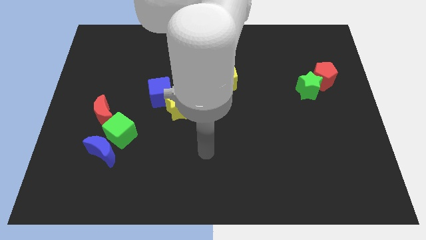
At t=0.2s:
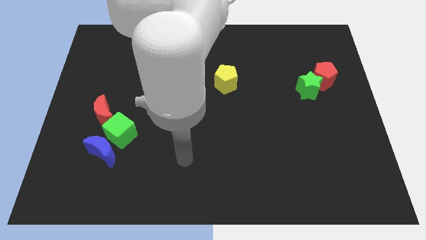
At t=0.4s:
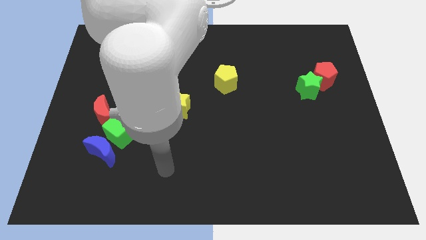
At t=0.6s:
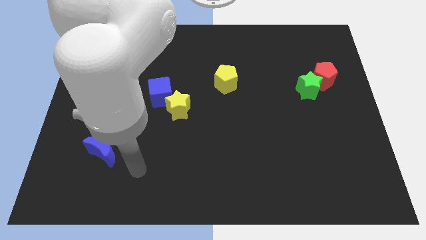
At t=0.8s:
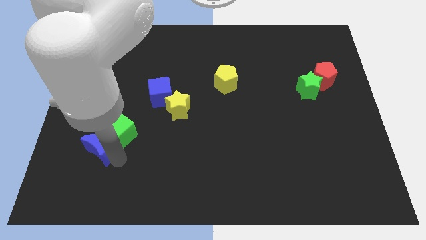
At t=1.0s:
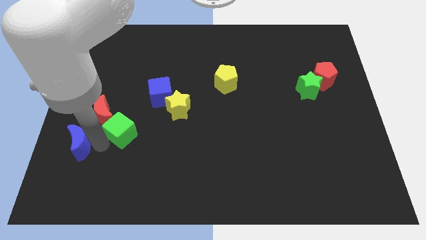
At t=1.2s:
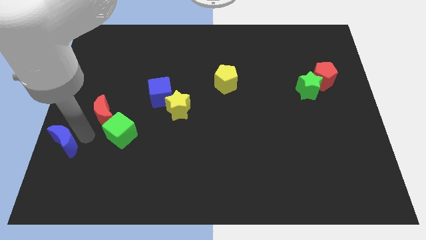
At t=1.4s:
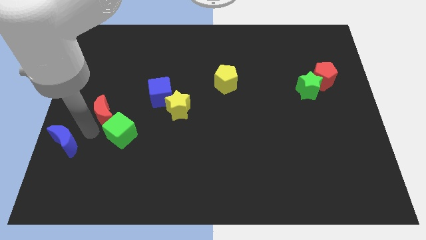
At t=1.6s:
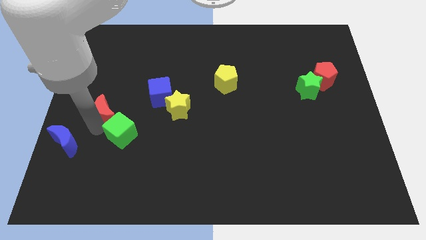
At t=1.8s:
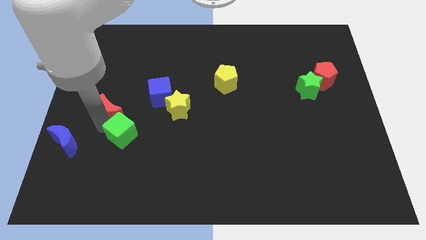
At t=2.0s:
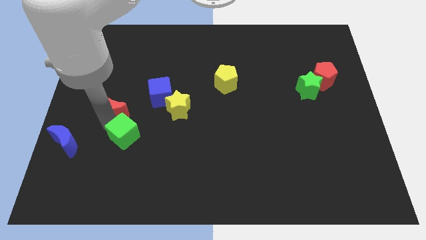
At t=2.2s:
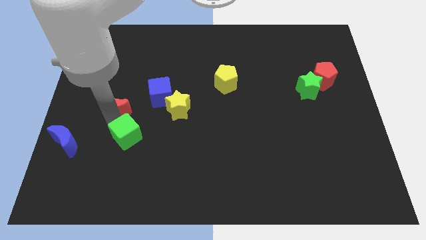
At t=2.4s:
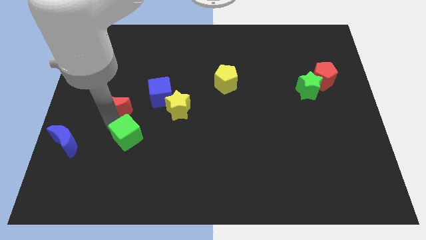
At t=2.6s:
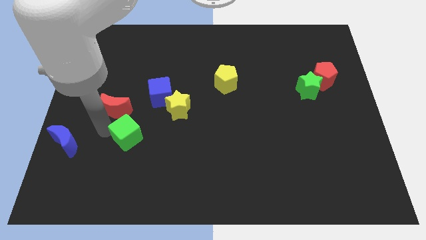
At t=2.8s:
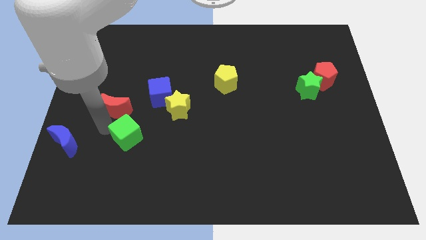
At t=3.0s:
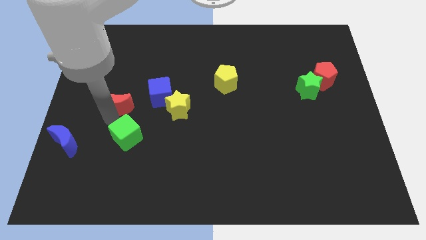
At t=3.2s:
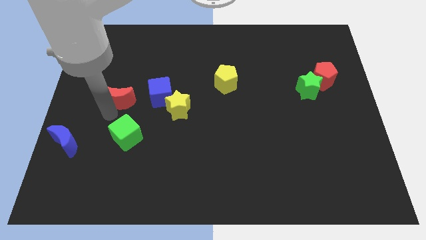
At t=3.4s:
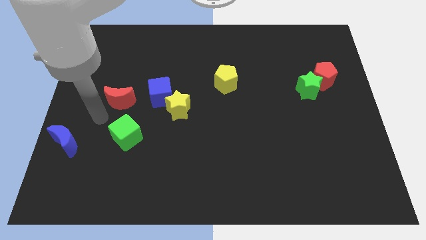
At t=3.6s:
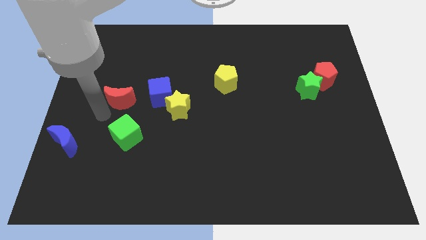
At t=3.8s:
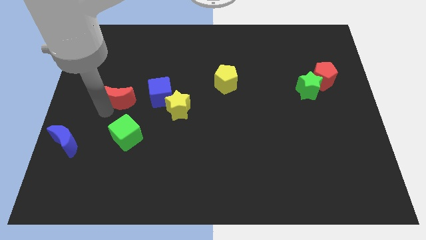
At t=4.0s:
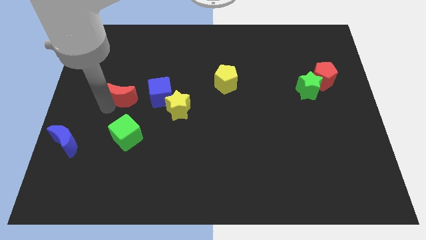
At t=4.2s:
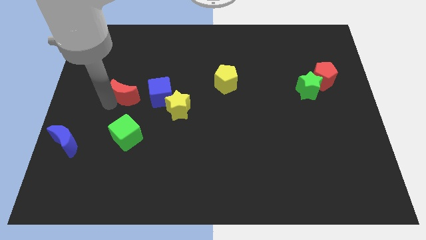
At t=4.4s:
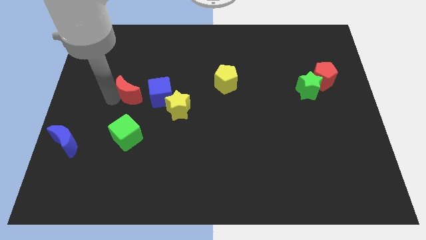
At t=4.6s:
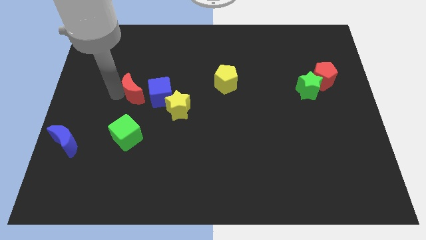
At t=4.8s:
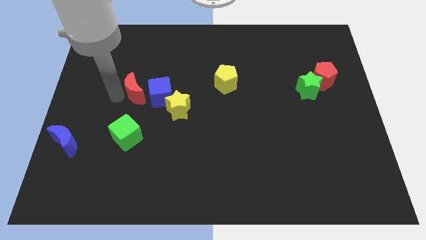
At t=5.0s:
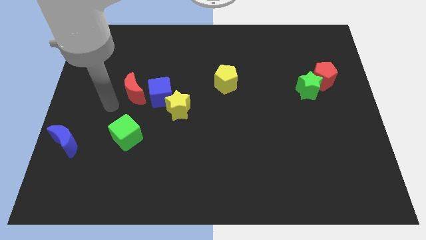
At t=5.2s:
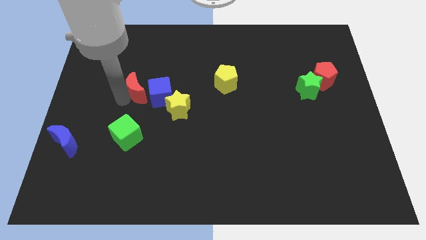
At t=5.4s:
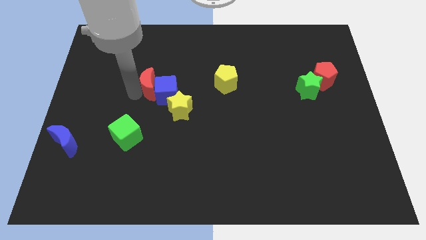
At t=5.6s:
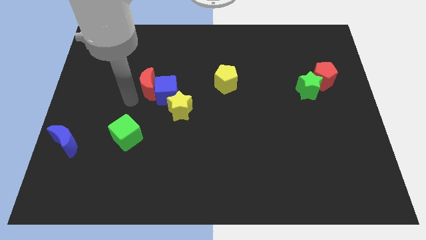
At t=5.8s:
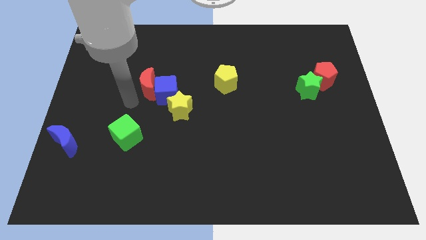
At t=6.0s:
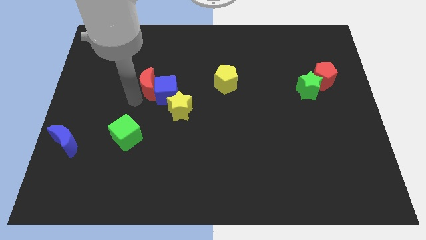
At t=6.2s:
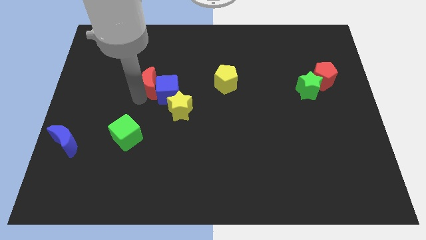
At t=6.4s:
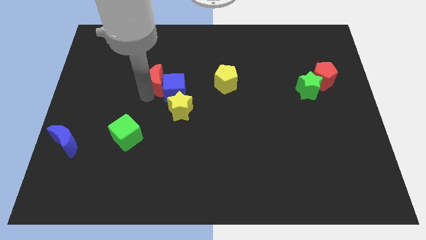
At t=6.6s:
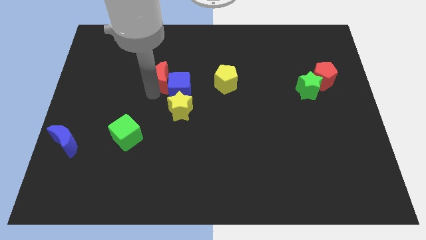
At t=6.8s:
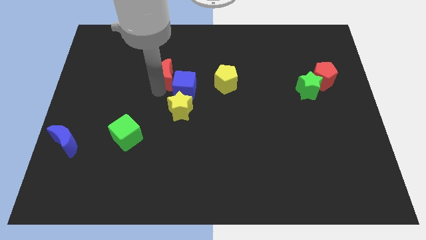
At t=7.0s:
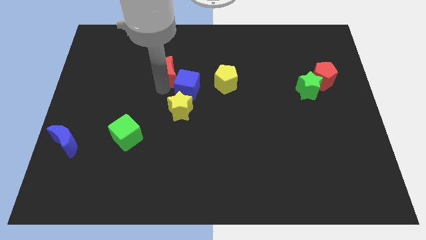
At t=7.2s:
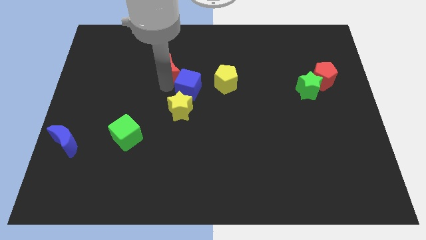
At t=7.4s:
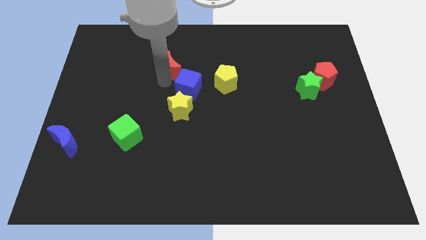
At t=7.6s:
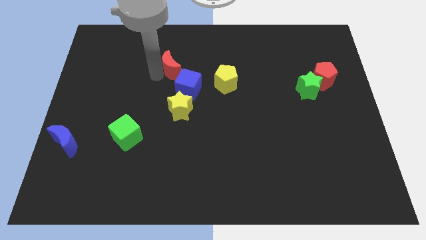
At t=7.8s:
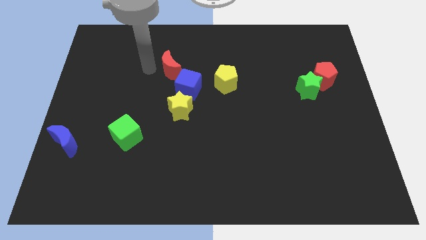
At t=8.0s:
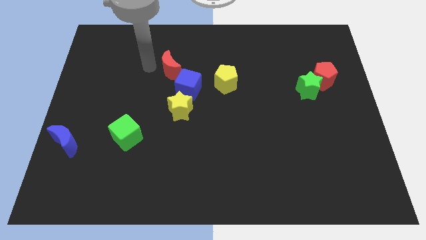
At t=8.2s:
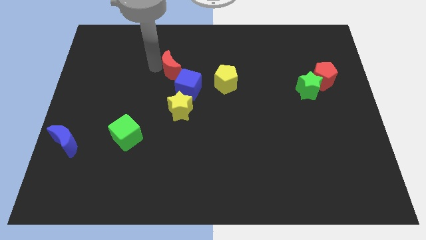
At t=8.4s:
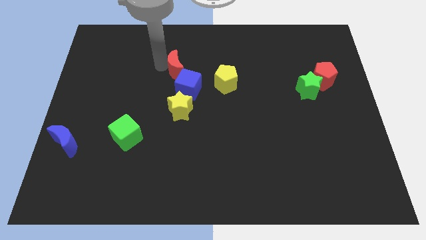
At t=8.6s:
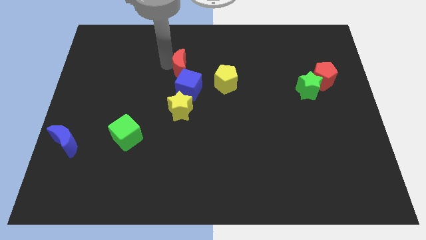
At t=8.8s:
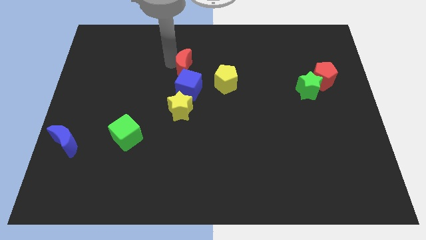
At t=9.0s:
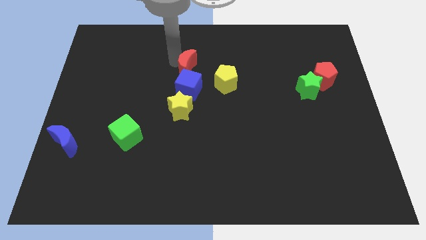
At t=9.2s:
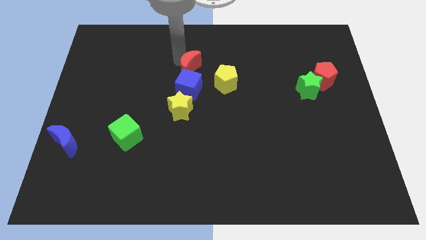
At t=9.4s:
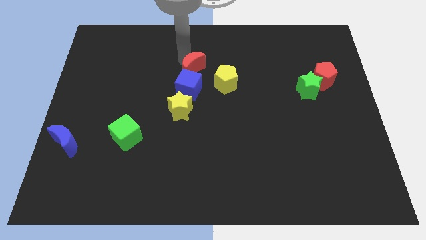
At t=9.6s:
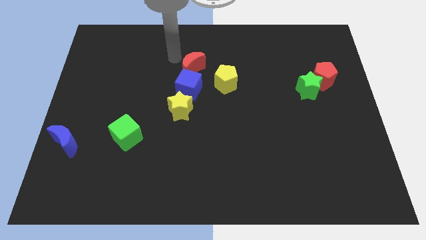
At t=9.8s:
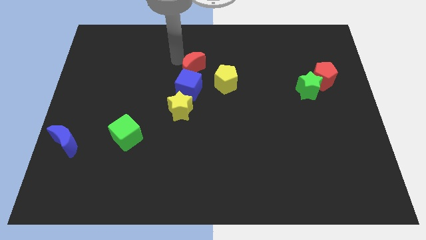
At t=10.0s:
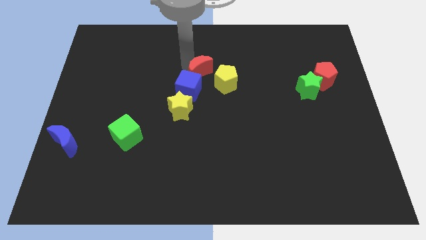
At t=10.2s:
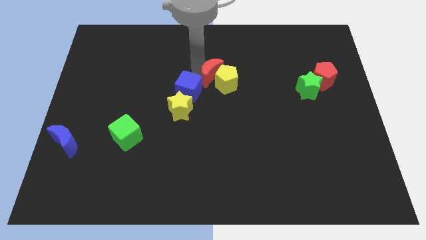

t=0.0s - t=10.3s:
move the red moon towards the yellow pentagon

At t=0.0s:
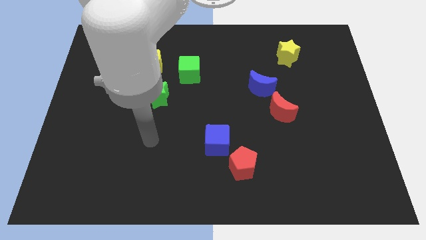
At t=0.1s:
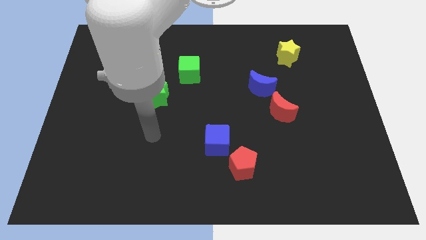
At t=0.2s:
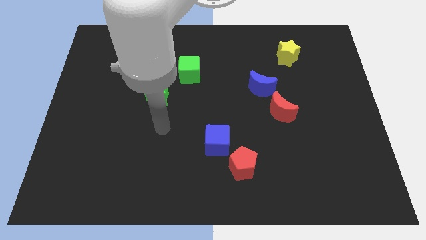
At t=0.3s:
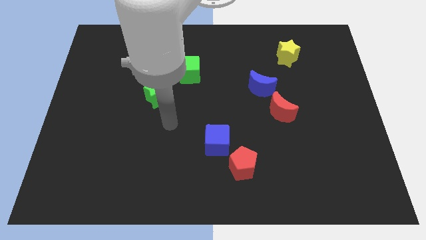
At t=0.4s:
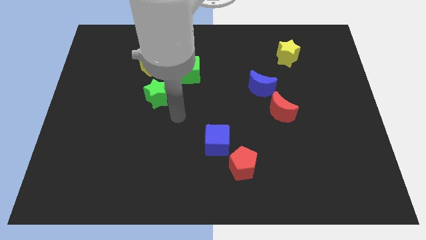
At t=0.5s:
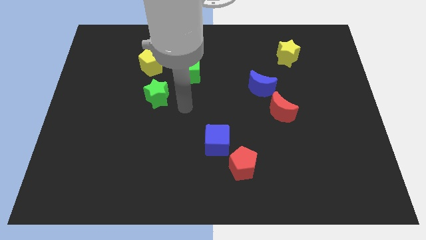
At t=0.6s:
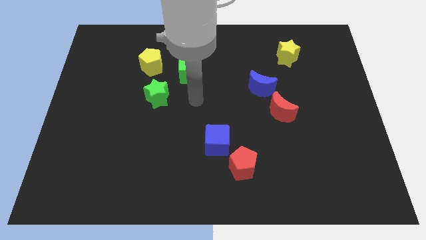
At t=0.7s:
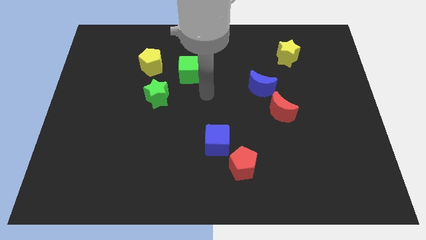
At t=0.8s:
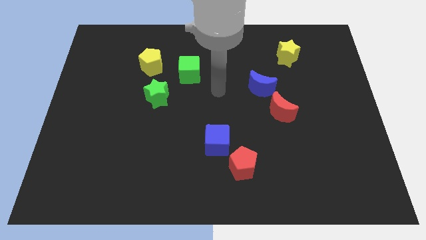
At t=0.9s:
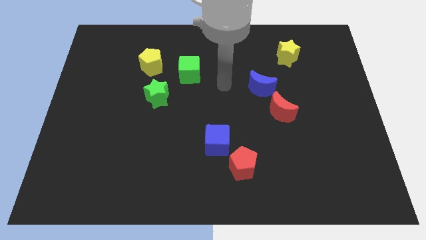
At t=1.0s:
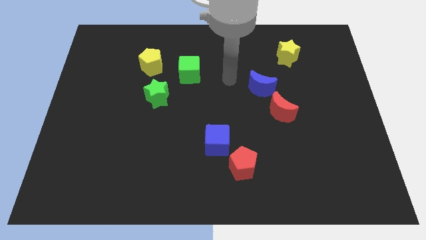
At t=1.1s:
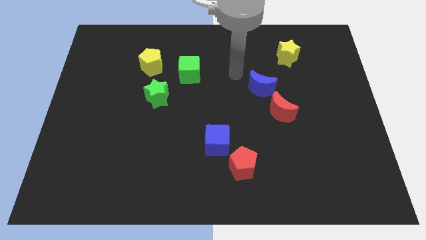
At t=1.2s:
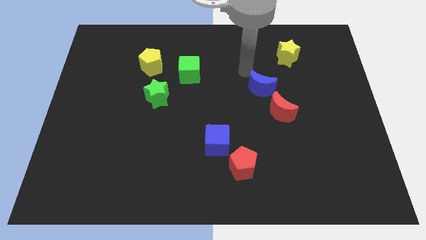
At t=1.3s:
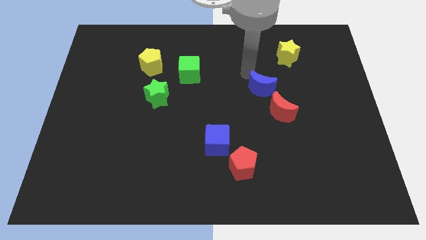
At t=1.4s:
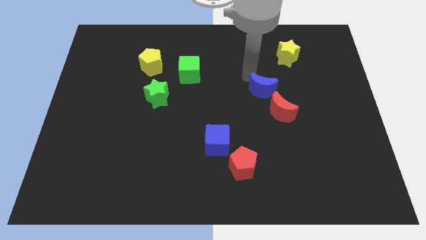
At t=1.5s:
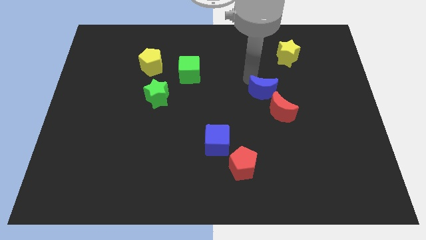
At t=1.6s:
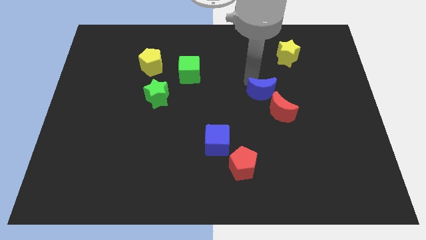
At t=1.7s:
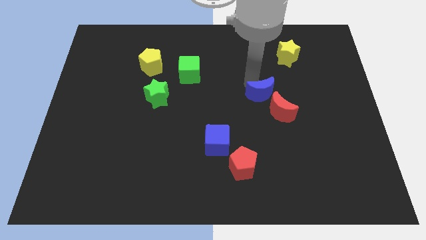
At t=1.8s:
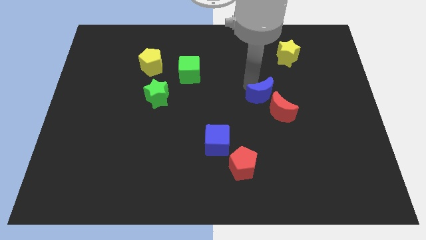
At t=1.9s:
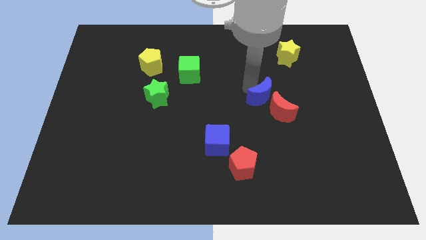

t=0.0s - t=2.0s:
put the blue moon next to the red moon

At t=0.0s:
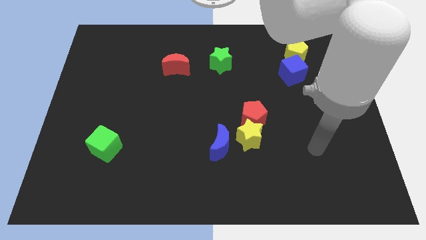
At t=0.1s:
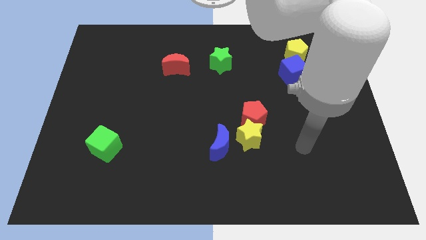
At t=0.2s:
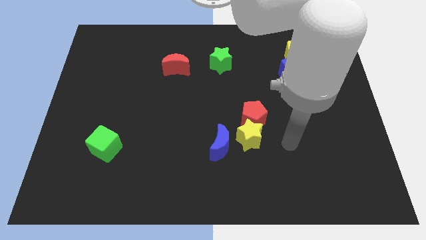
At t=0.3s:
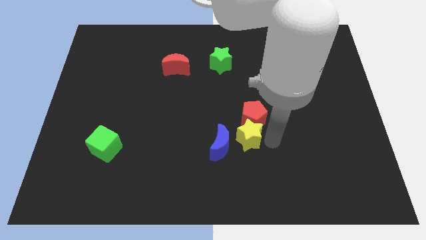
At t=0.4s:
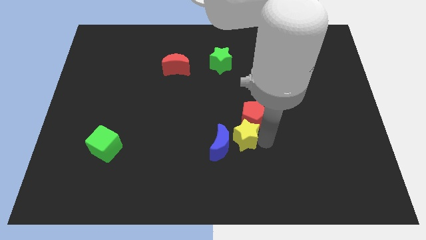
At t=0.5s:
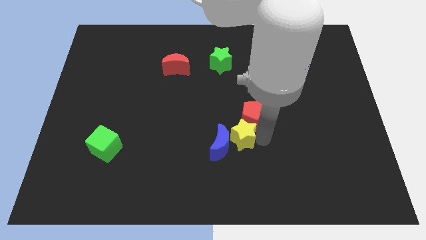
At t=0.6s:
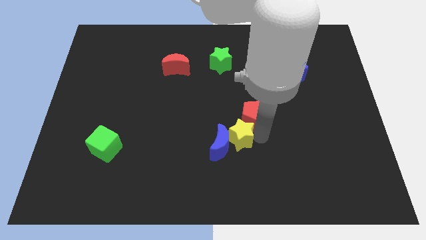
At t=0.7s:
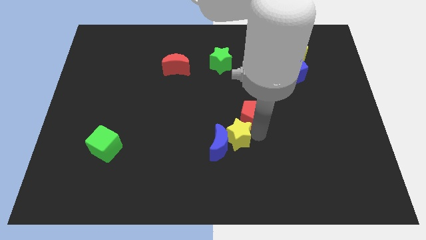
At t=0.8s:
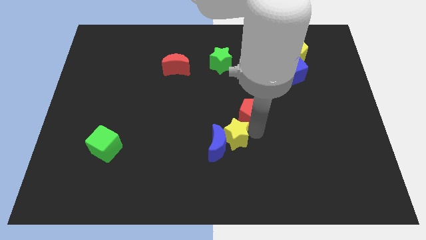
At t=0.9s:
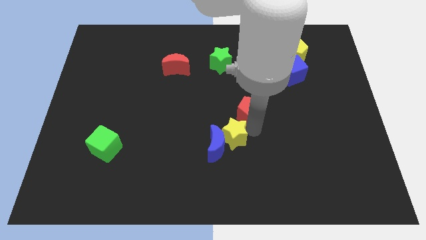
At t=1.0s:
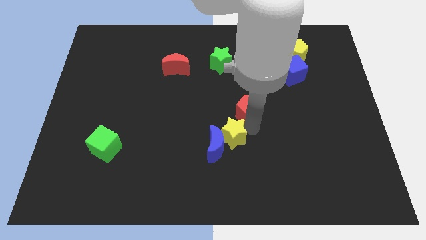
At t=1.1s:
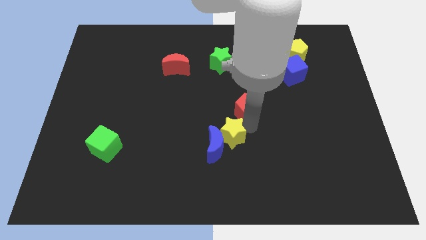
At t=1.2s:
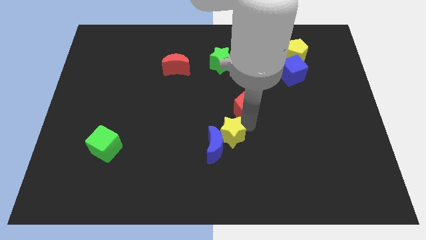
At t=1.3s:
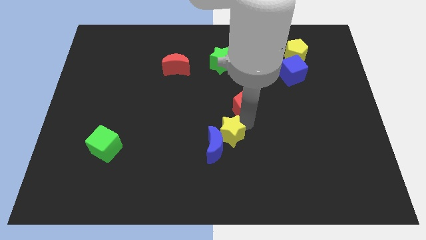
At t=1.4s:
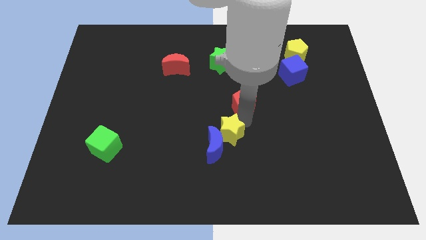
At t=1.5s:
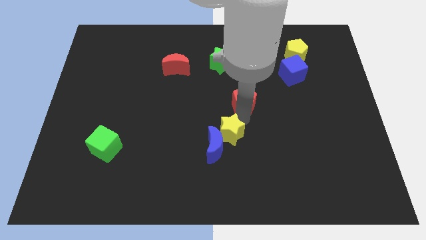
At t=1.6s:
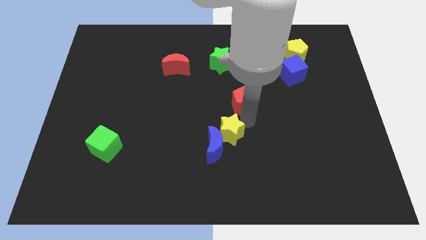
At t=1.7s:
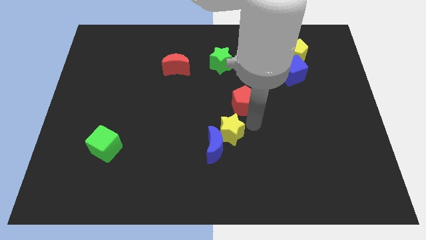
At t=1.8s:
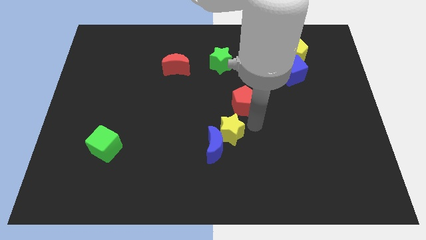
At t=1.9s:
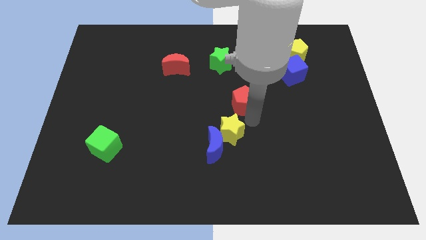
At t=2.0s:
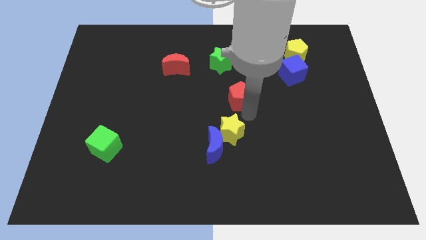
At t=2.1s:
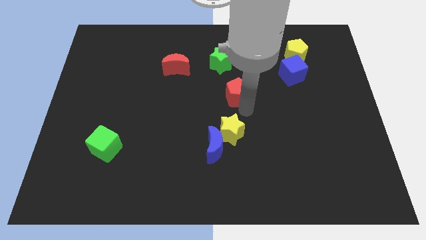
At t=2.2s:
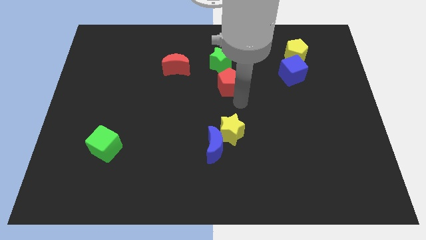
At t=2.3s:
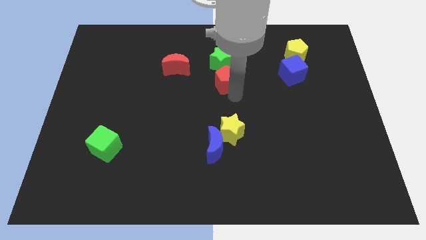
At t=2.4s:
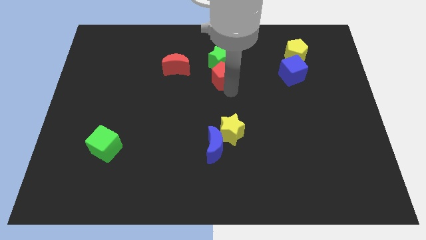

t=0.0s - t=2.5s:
push the red pentagon to the green star
